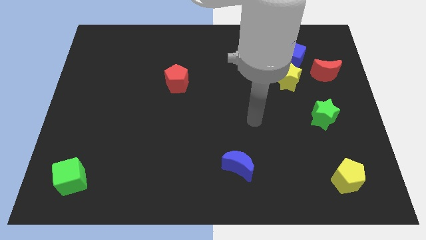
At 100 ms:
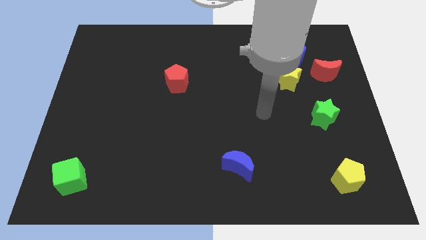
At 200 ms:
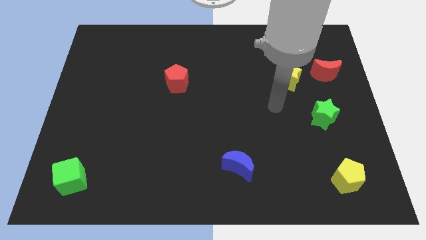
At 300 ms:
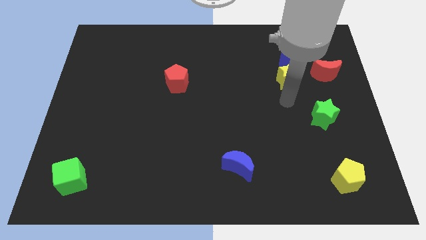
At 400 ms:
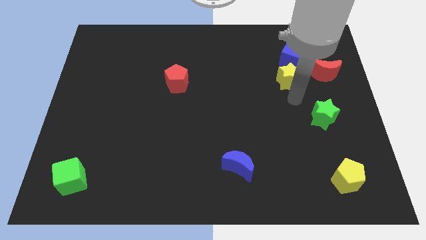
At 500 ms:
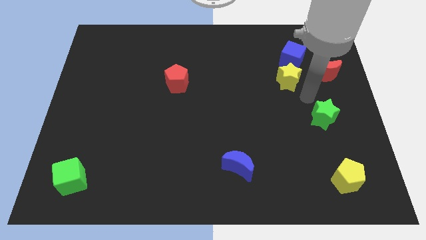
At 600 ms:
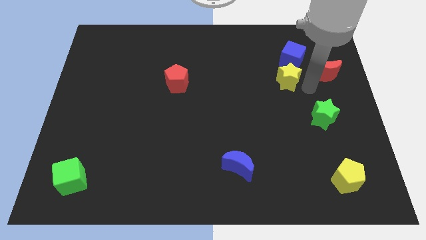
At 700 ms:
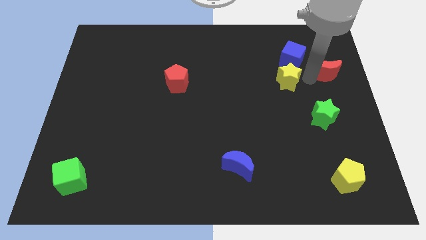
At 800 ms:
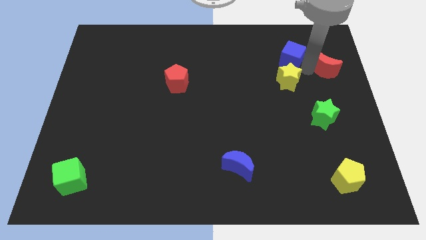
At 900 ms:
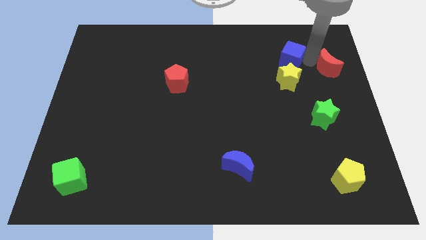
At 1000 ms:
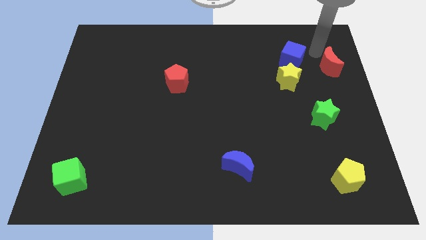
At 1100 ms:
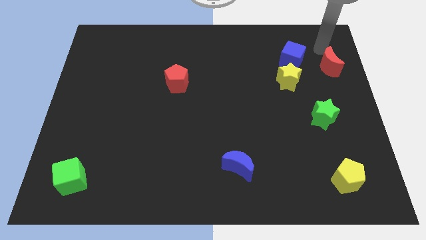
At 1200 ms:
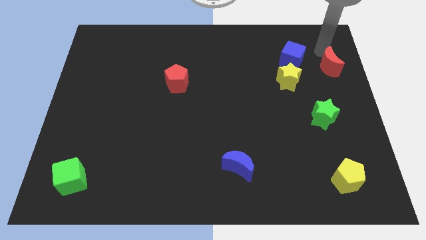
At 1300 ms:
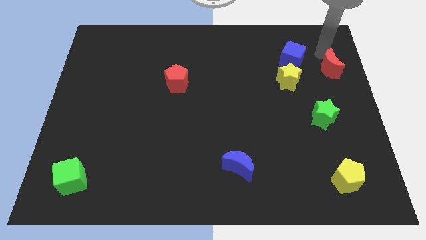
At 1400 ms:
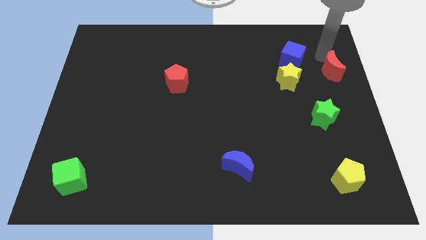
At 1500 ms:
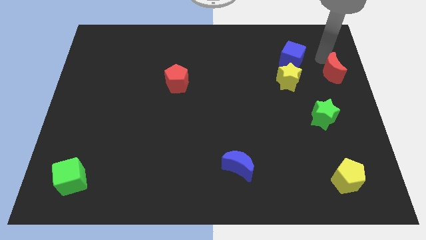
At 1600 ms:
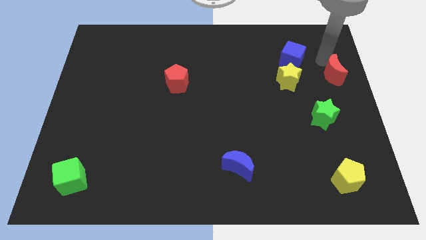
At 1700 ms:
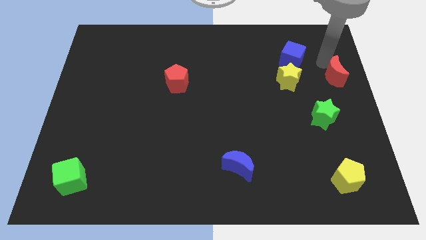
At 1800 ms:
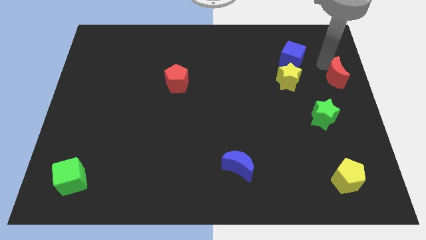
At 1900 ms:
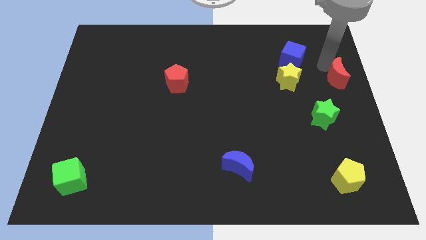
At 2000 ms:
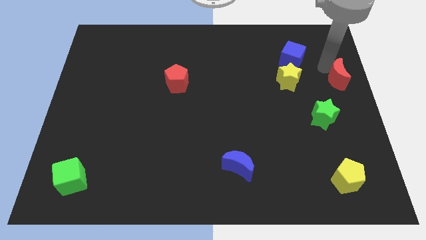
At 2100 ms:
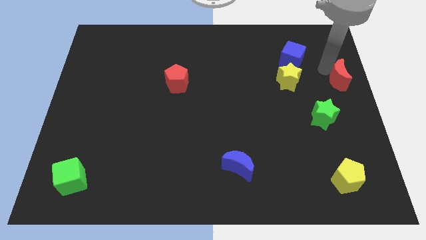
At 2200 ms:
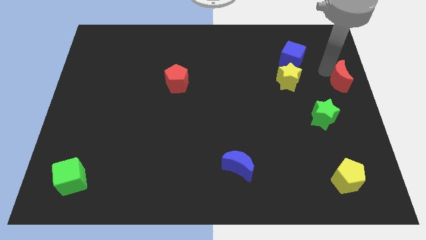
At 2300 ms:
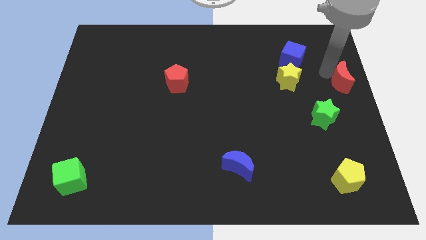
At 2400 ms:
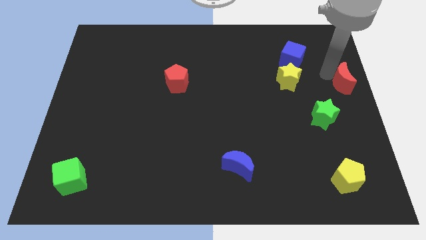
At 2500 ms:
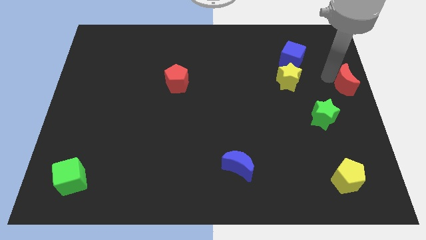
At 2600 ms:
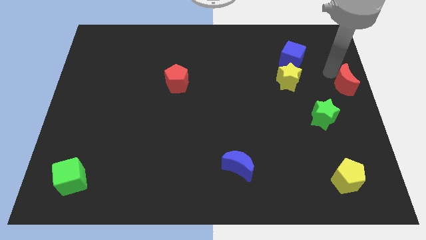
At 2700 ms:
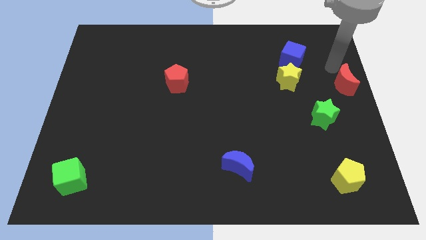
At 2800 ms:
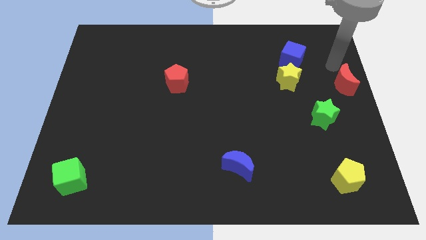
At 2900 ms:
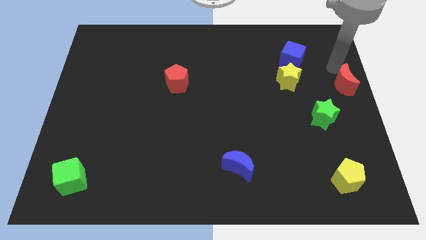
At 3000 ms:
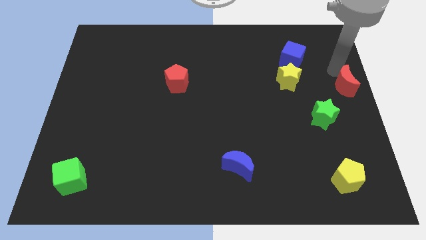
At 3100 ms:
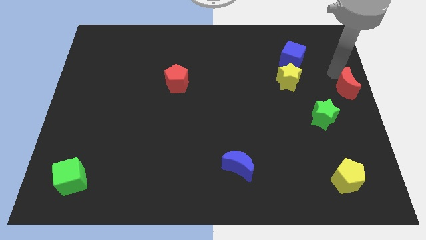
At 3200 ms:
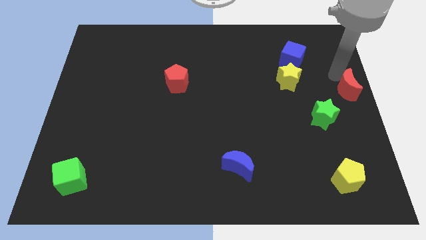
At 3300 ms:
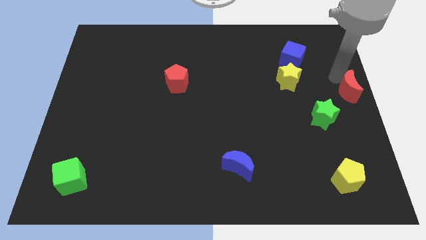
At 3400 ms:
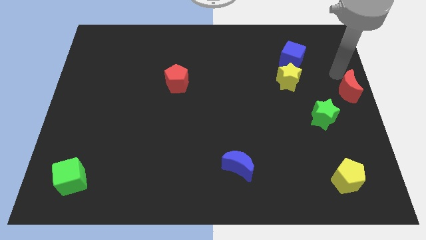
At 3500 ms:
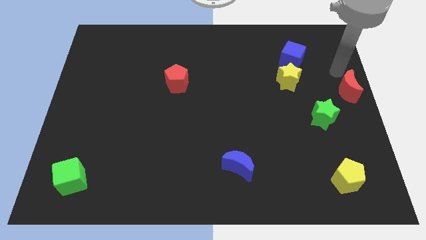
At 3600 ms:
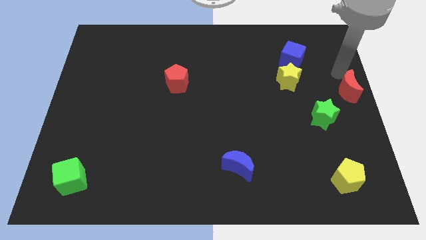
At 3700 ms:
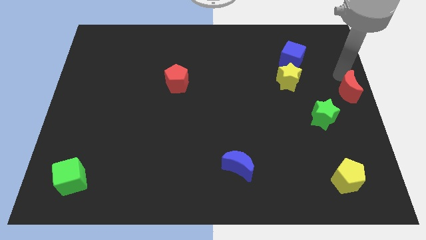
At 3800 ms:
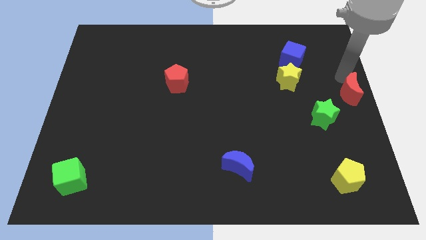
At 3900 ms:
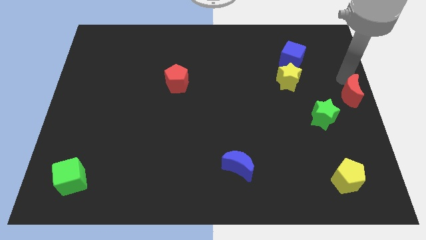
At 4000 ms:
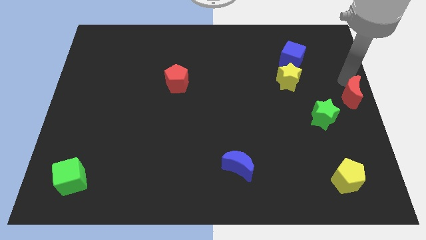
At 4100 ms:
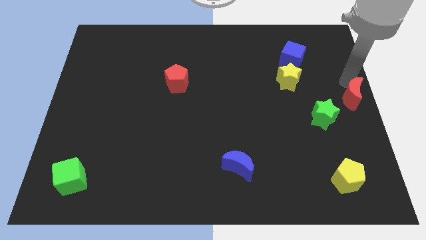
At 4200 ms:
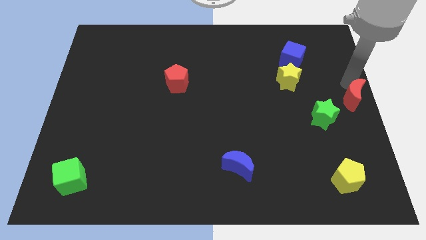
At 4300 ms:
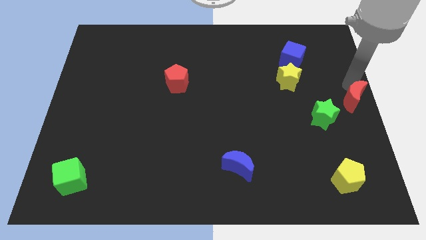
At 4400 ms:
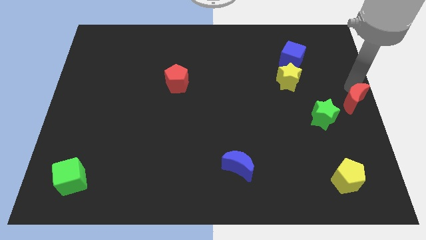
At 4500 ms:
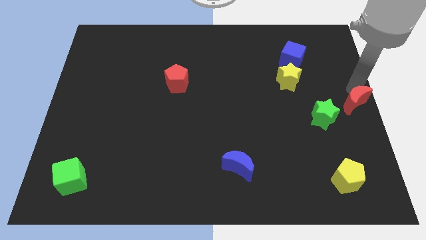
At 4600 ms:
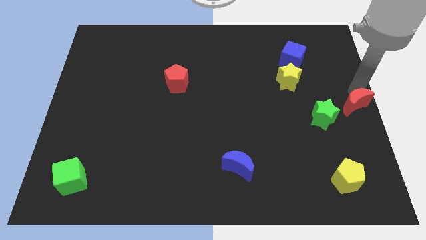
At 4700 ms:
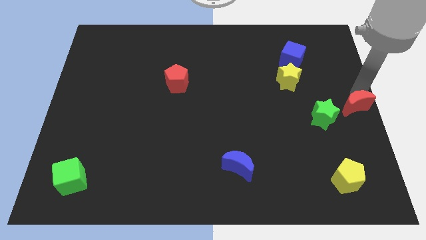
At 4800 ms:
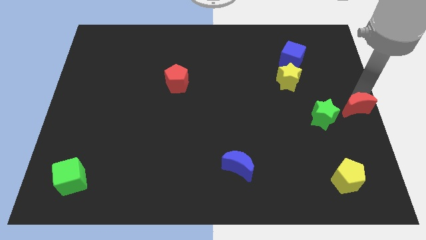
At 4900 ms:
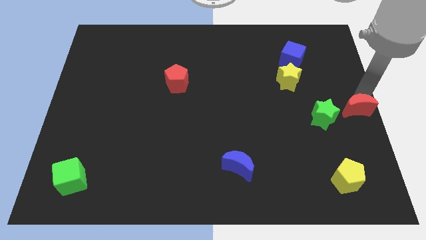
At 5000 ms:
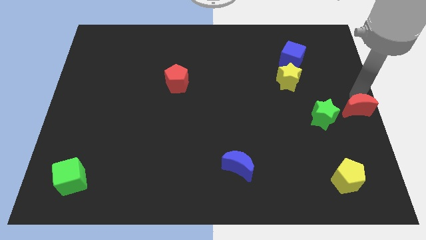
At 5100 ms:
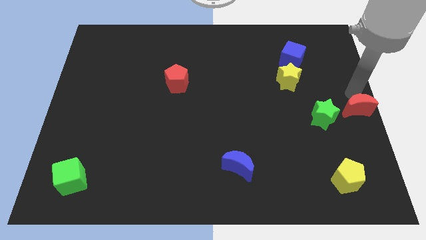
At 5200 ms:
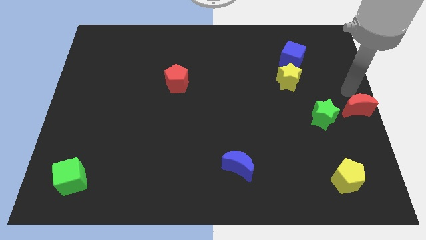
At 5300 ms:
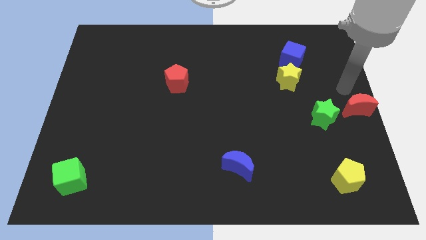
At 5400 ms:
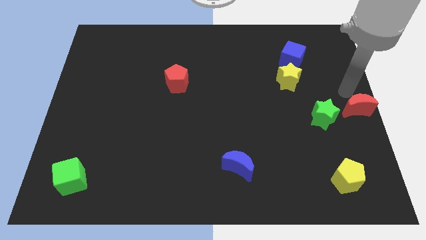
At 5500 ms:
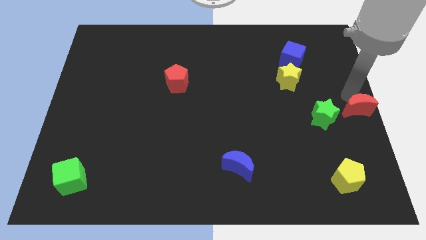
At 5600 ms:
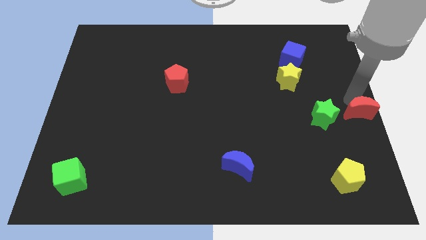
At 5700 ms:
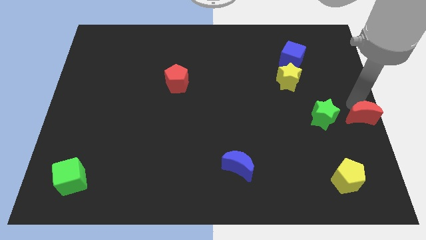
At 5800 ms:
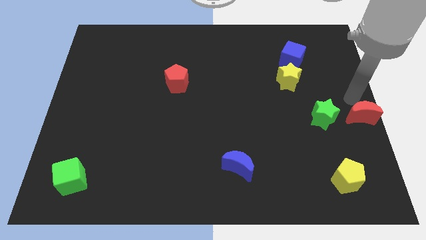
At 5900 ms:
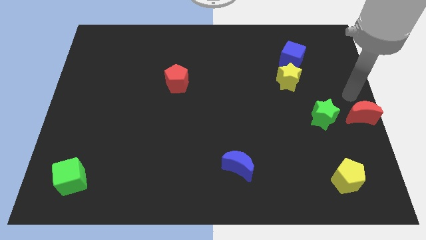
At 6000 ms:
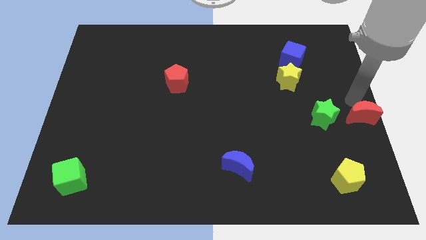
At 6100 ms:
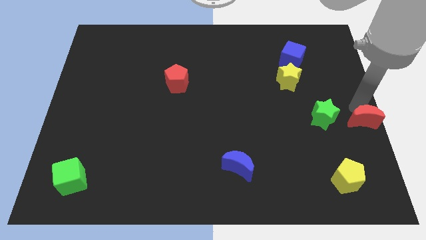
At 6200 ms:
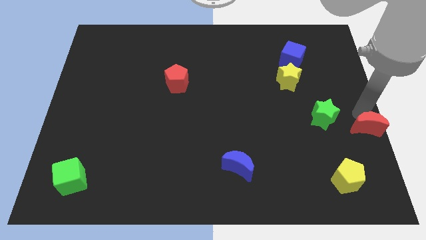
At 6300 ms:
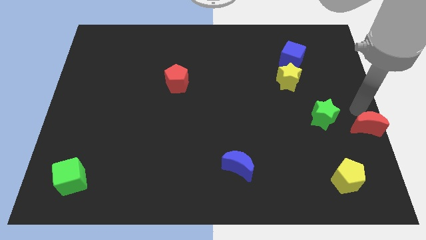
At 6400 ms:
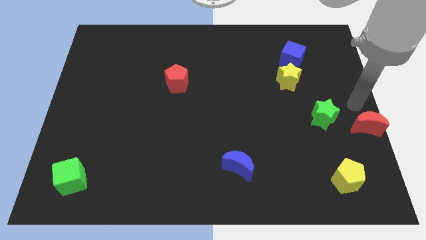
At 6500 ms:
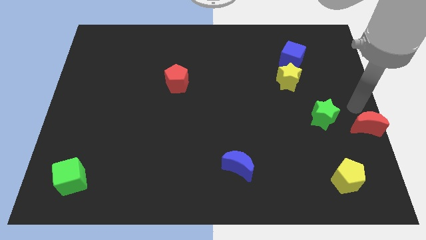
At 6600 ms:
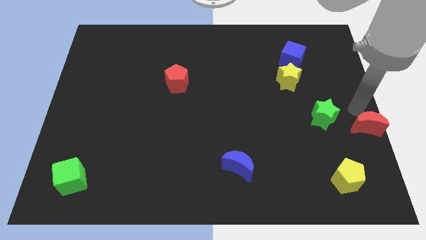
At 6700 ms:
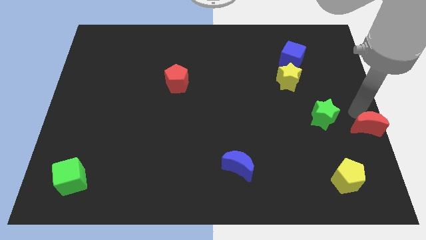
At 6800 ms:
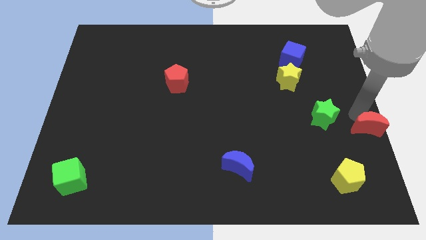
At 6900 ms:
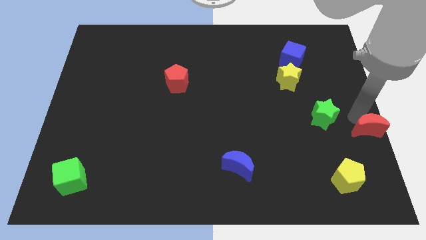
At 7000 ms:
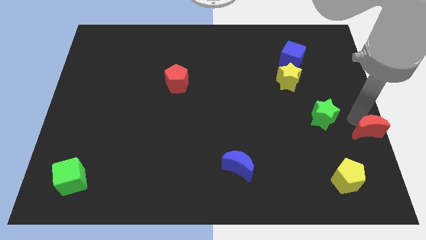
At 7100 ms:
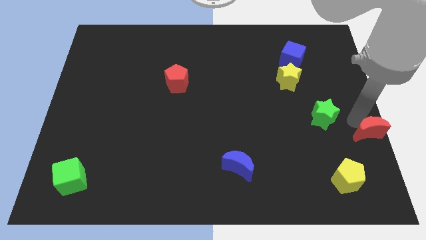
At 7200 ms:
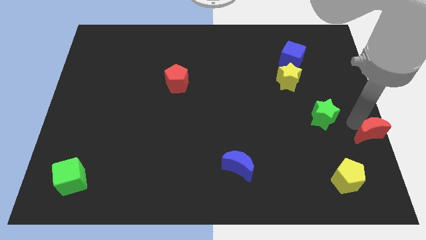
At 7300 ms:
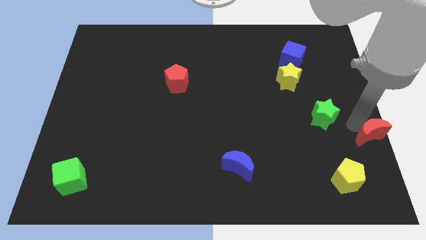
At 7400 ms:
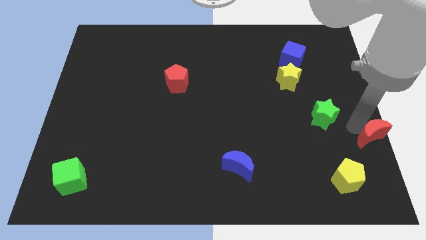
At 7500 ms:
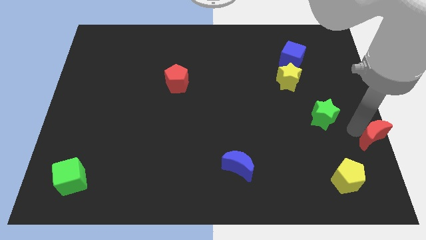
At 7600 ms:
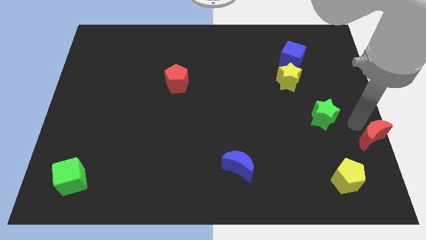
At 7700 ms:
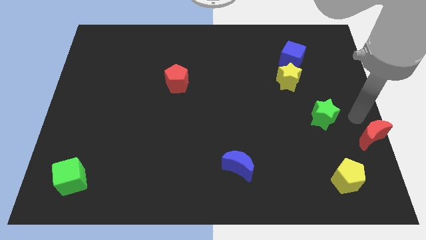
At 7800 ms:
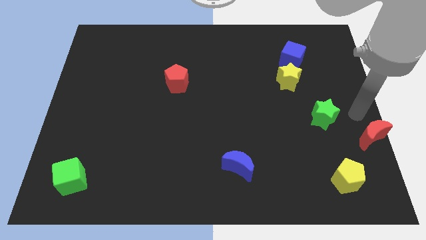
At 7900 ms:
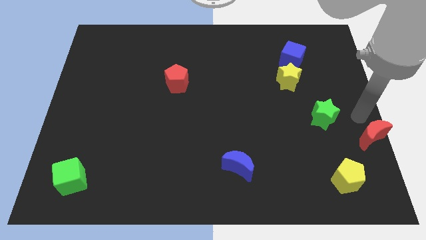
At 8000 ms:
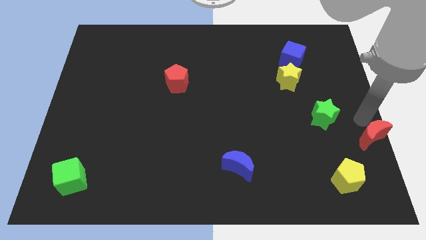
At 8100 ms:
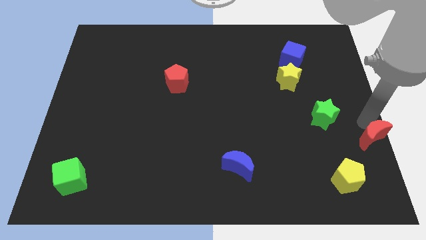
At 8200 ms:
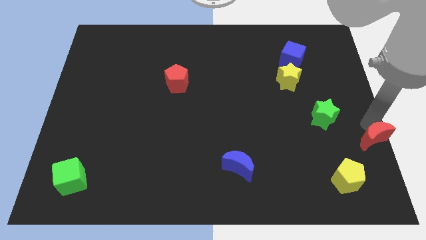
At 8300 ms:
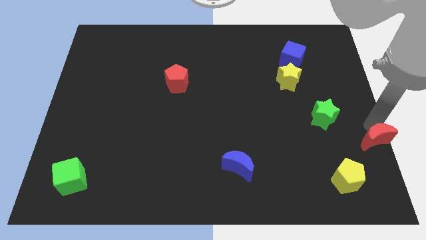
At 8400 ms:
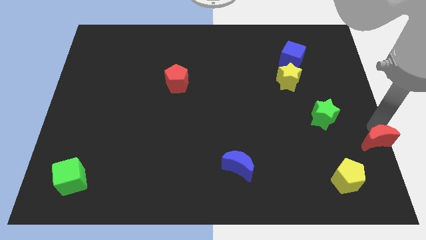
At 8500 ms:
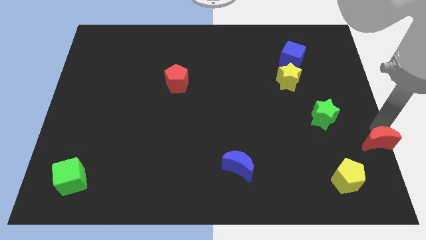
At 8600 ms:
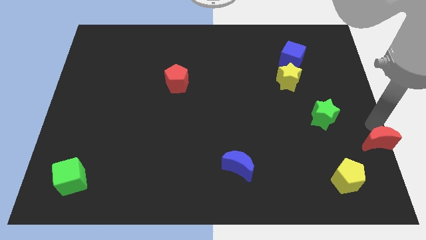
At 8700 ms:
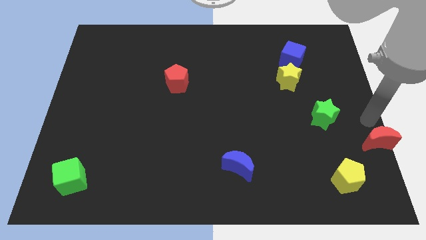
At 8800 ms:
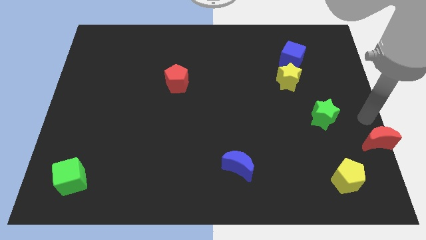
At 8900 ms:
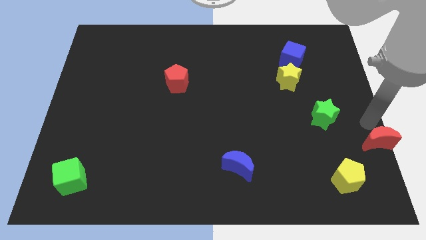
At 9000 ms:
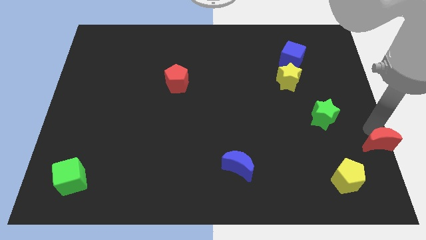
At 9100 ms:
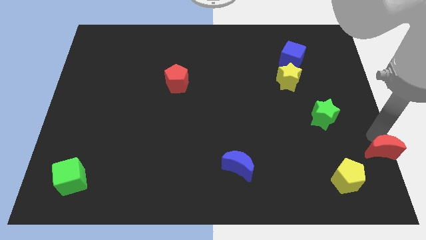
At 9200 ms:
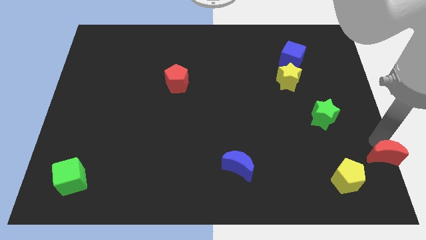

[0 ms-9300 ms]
slide the red moon to the bottom right of the board
